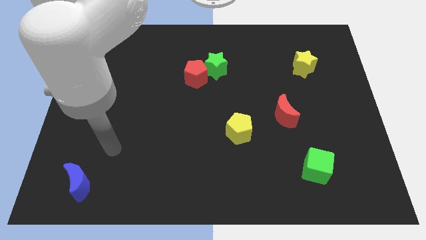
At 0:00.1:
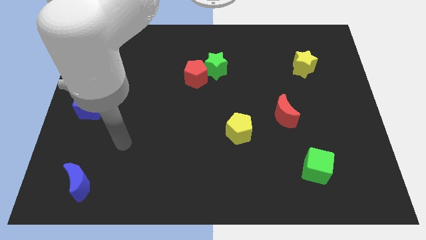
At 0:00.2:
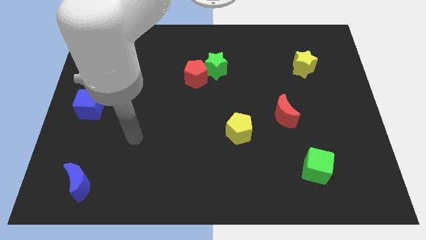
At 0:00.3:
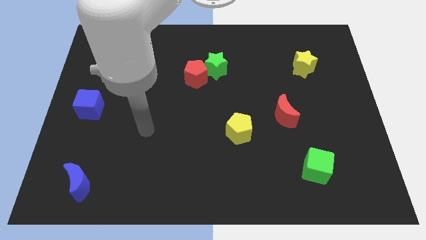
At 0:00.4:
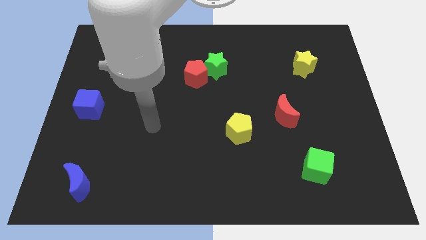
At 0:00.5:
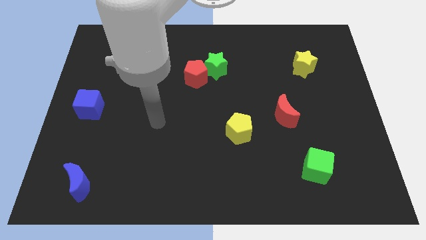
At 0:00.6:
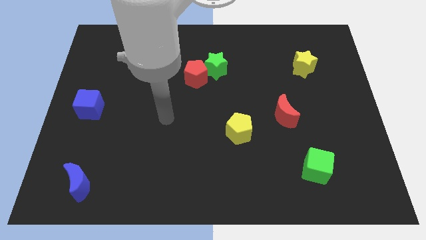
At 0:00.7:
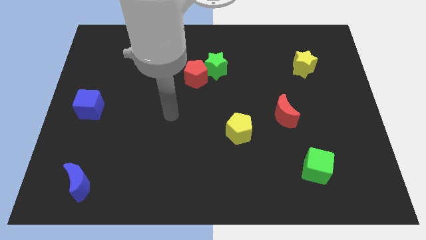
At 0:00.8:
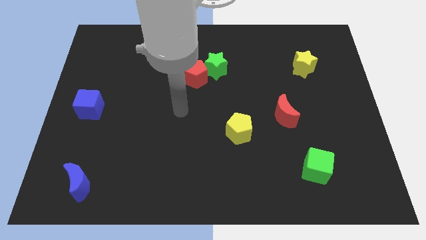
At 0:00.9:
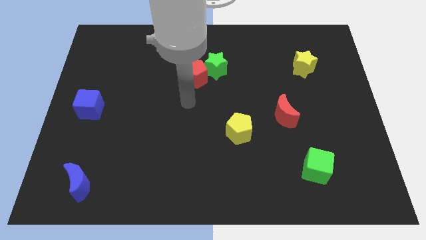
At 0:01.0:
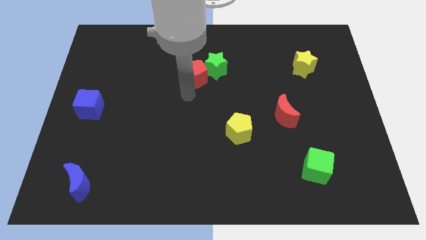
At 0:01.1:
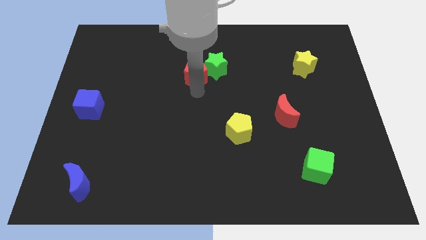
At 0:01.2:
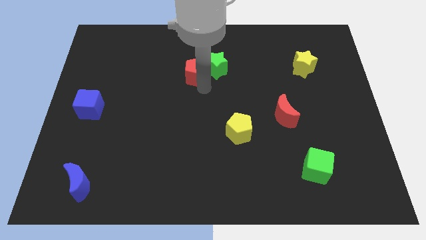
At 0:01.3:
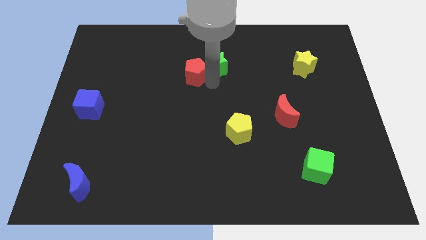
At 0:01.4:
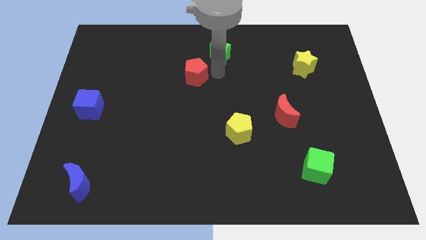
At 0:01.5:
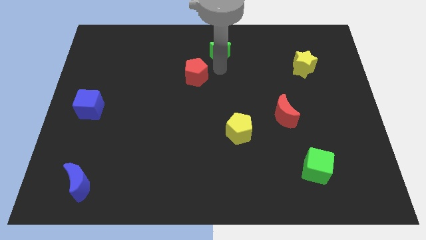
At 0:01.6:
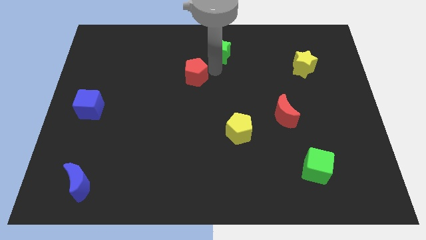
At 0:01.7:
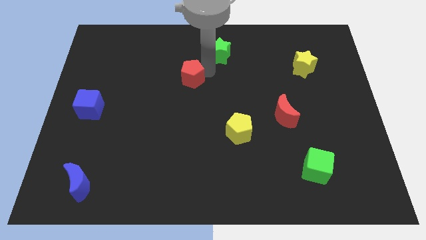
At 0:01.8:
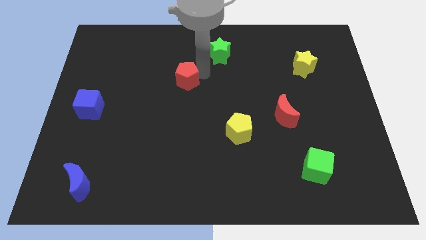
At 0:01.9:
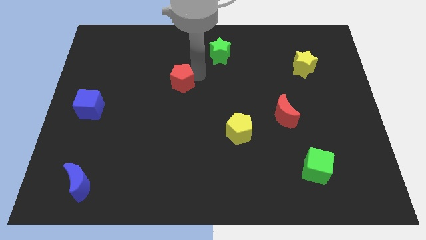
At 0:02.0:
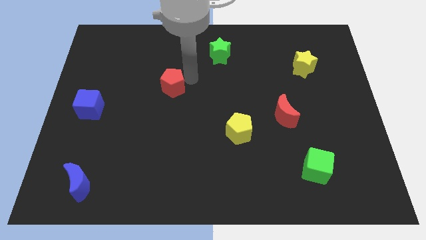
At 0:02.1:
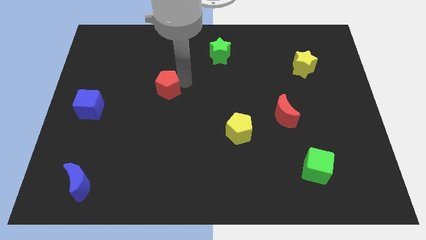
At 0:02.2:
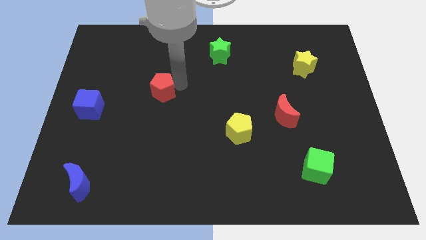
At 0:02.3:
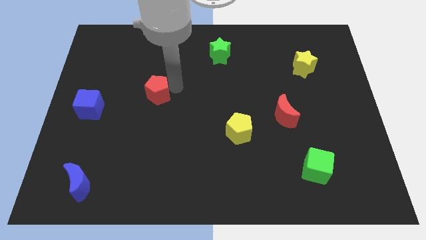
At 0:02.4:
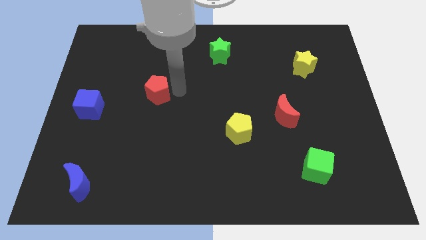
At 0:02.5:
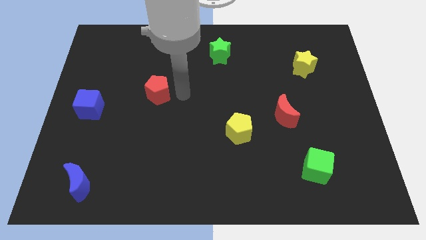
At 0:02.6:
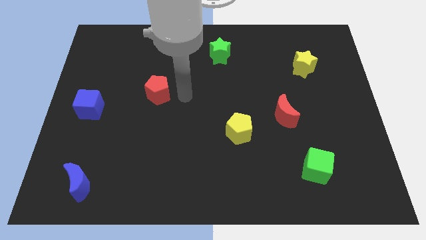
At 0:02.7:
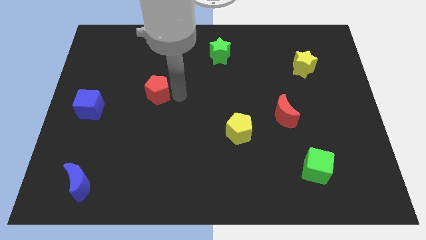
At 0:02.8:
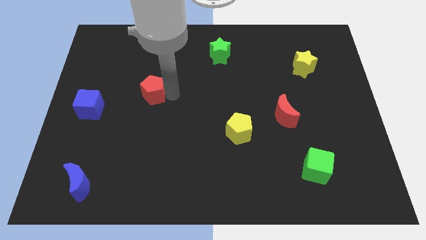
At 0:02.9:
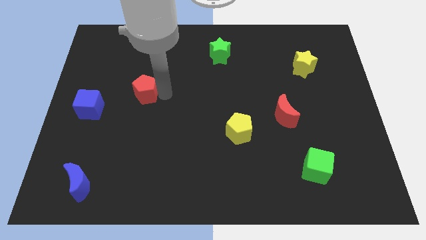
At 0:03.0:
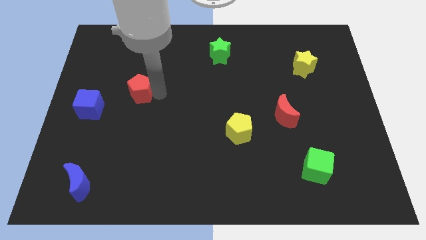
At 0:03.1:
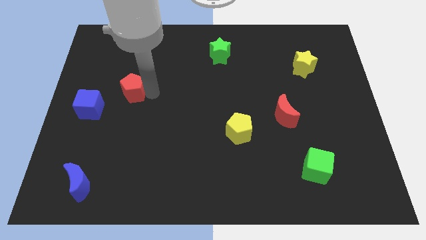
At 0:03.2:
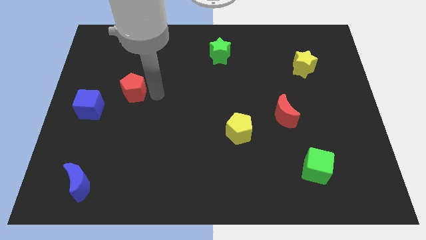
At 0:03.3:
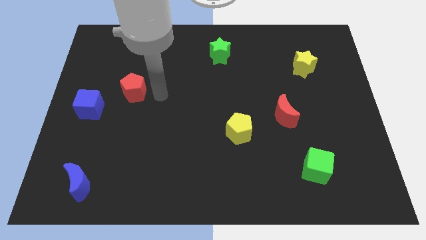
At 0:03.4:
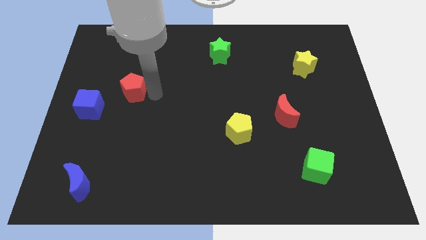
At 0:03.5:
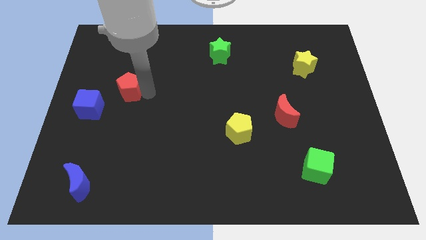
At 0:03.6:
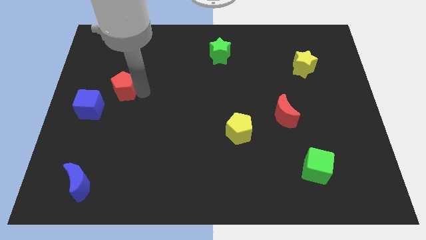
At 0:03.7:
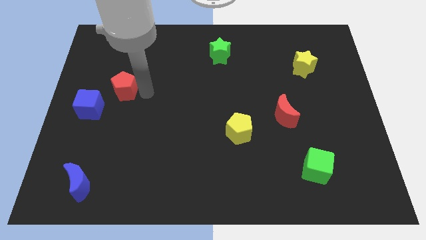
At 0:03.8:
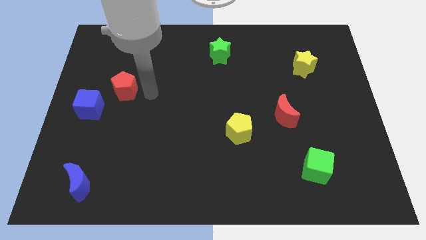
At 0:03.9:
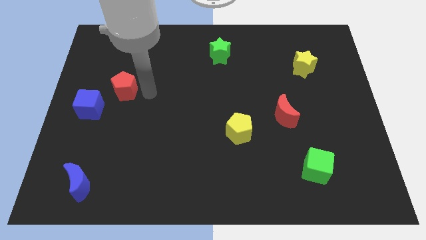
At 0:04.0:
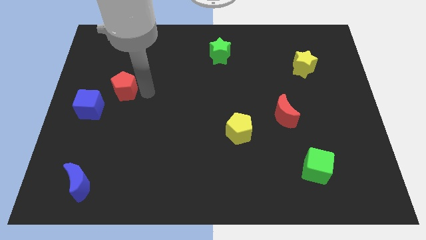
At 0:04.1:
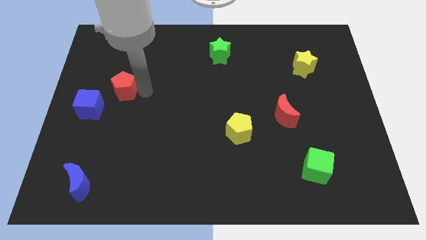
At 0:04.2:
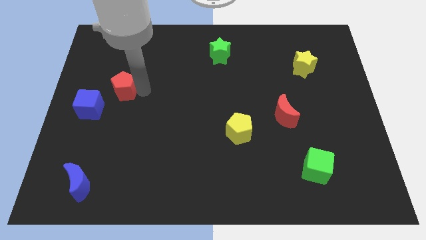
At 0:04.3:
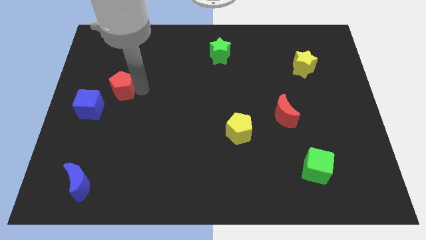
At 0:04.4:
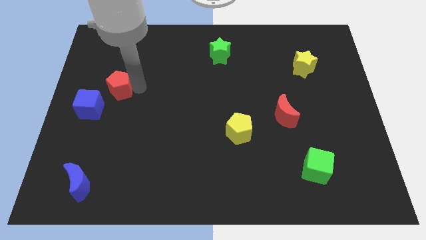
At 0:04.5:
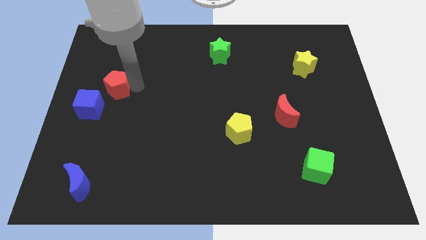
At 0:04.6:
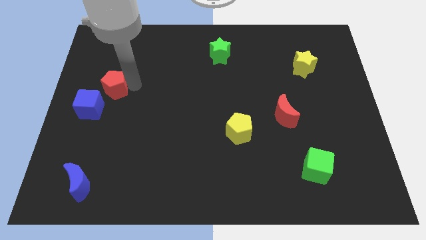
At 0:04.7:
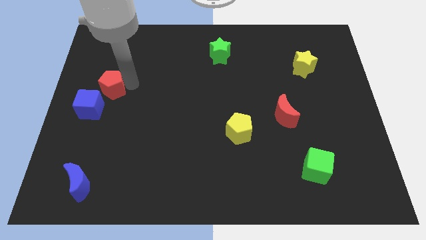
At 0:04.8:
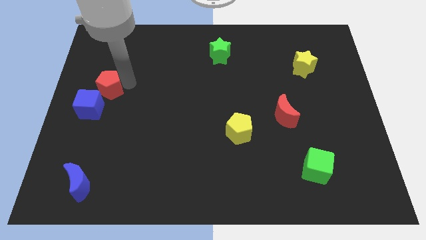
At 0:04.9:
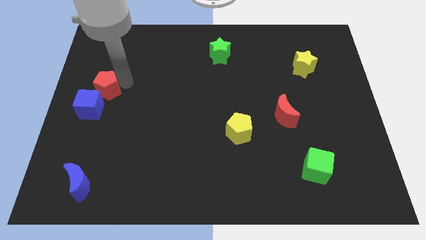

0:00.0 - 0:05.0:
slide the red pentagon to the center left

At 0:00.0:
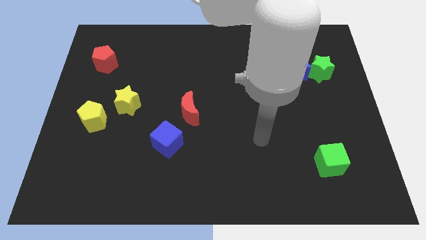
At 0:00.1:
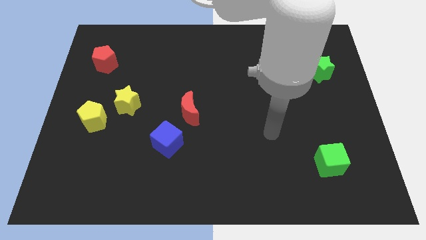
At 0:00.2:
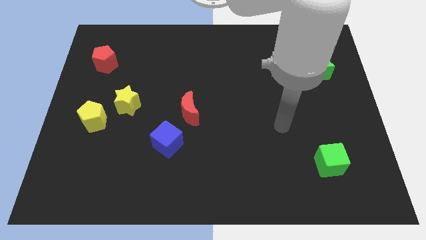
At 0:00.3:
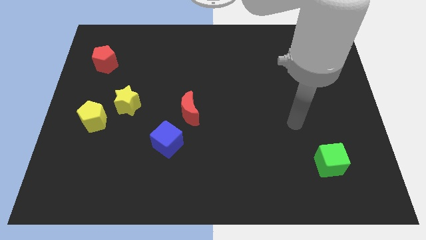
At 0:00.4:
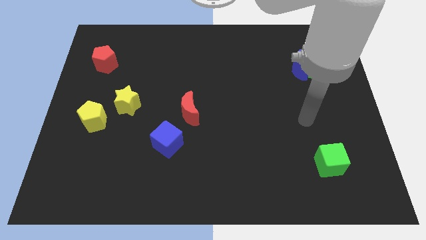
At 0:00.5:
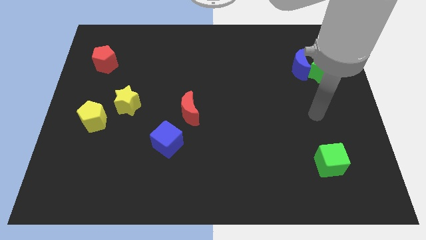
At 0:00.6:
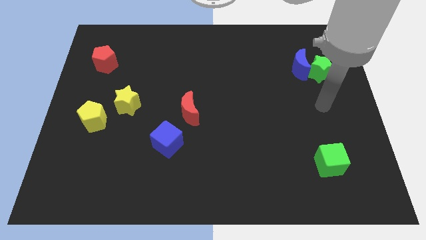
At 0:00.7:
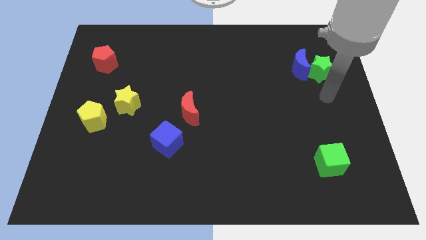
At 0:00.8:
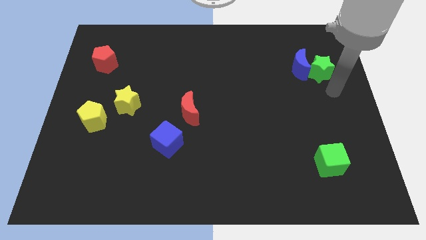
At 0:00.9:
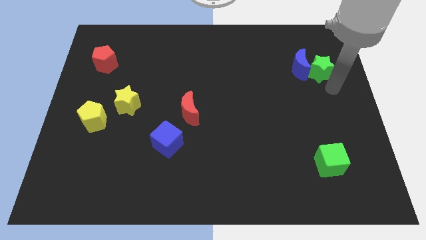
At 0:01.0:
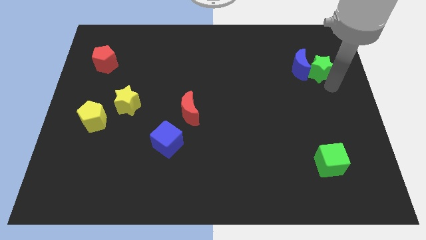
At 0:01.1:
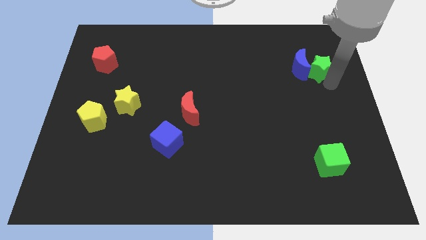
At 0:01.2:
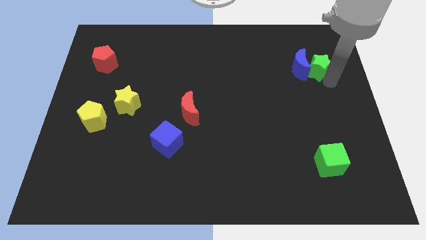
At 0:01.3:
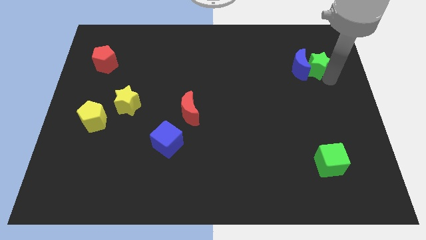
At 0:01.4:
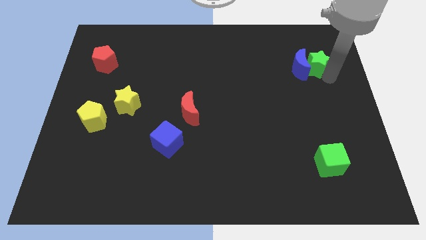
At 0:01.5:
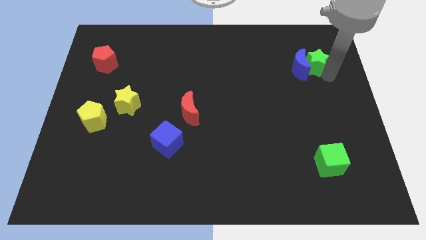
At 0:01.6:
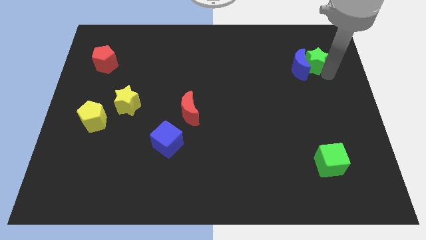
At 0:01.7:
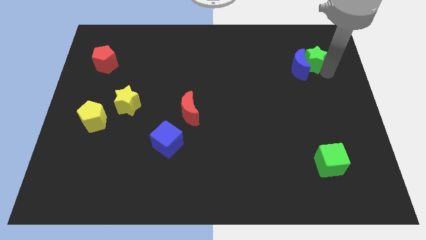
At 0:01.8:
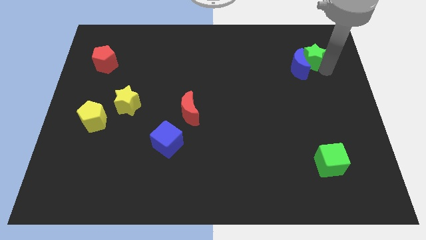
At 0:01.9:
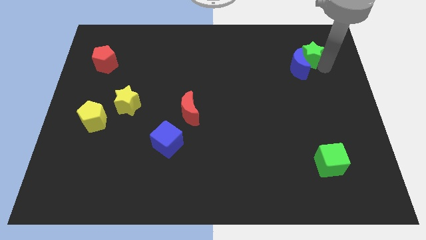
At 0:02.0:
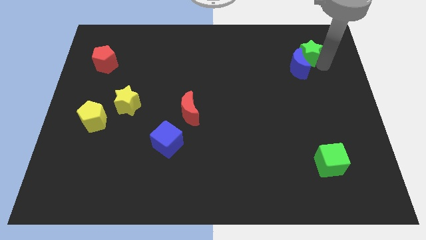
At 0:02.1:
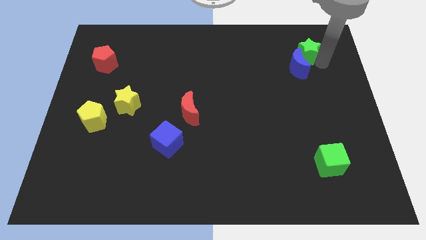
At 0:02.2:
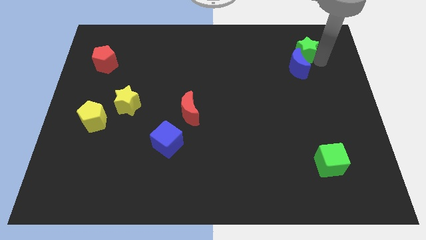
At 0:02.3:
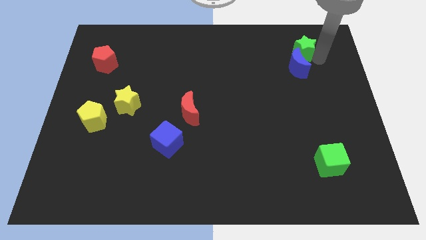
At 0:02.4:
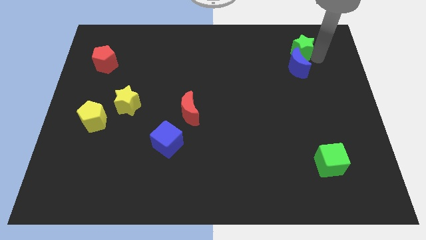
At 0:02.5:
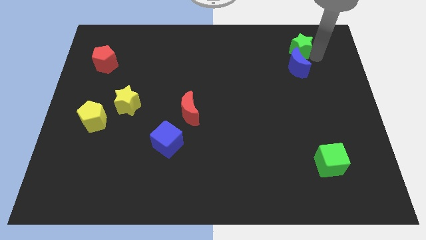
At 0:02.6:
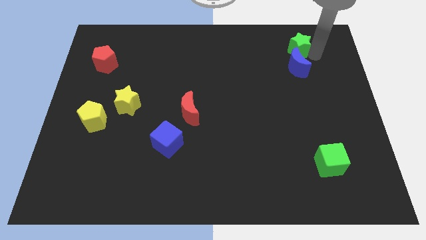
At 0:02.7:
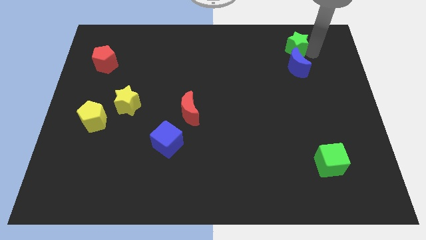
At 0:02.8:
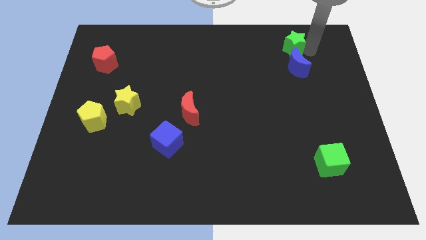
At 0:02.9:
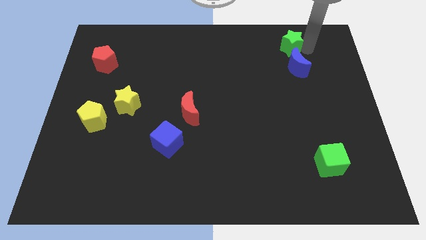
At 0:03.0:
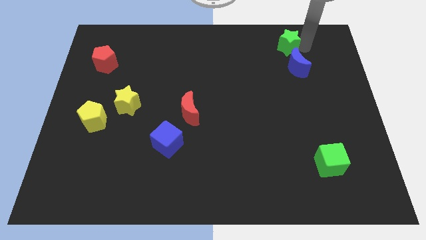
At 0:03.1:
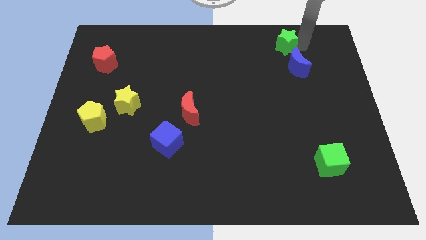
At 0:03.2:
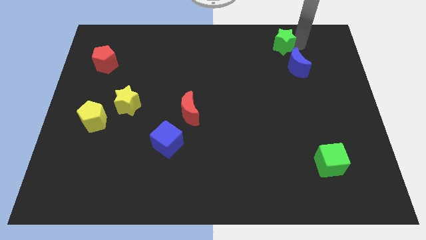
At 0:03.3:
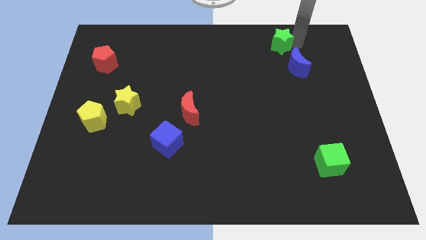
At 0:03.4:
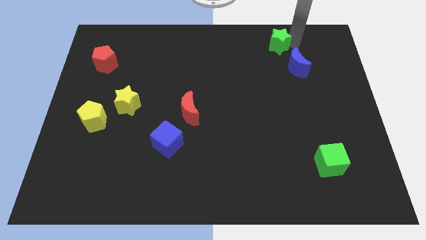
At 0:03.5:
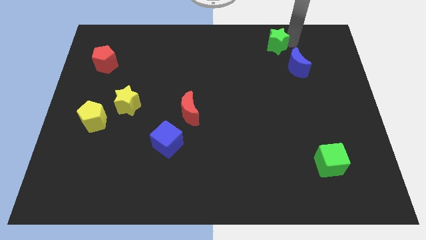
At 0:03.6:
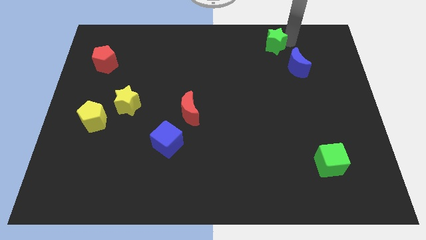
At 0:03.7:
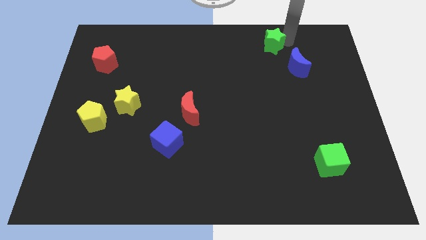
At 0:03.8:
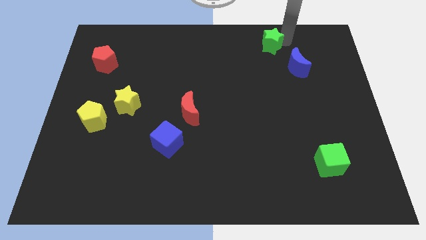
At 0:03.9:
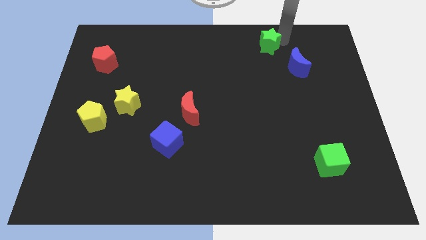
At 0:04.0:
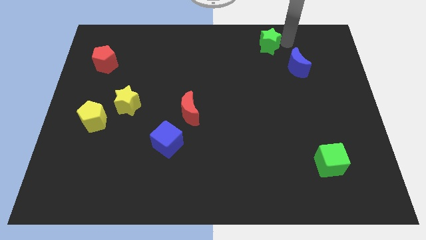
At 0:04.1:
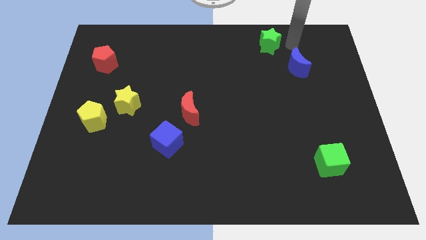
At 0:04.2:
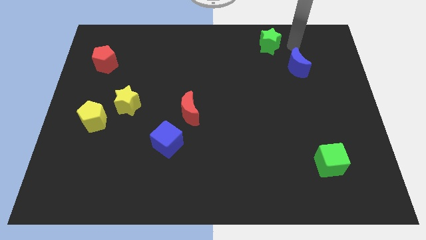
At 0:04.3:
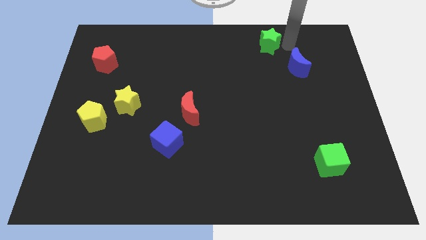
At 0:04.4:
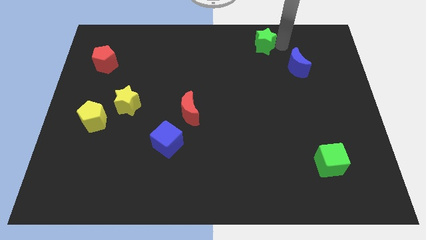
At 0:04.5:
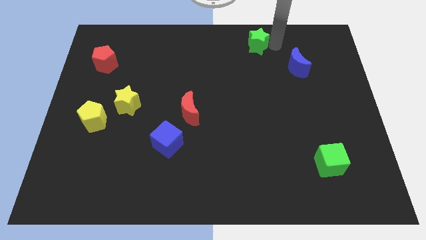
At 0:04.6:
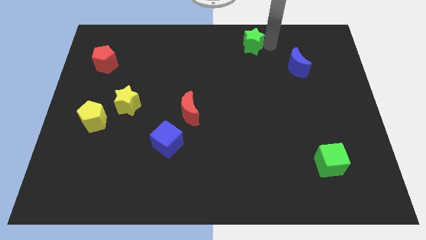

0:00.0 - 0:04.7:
put the green star to the towards your base
